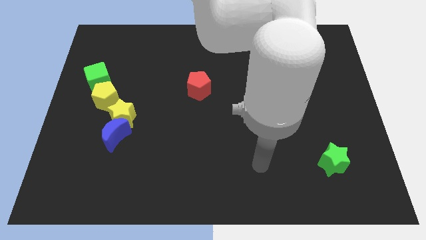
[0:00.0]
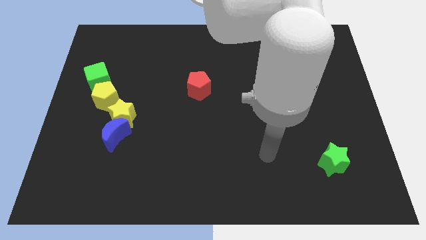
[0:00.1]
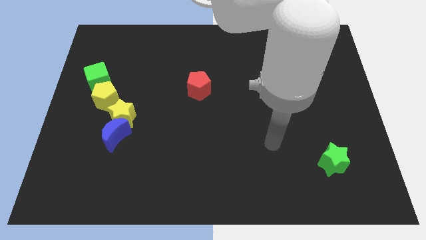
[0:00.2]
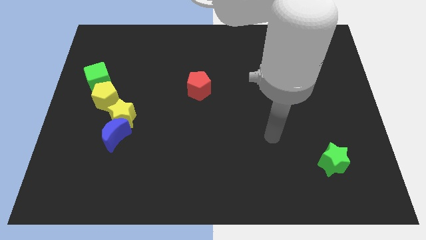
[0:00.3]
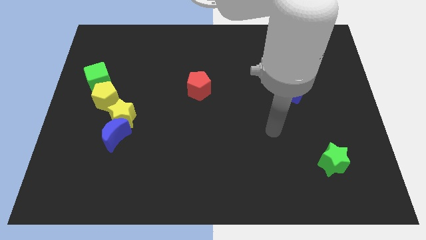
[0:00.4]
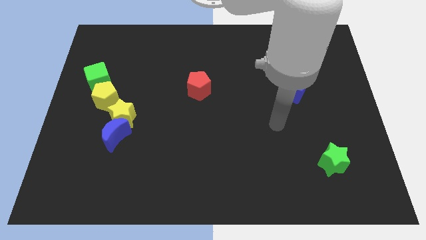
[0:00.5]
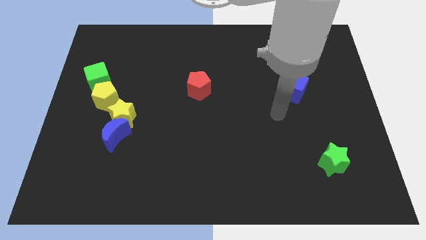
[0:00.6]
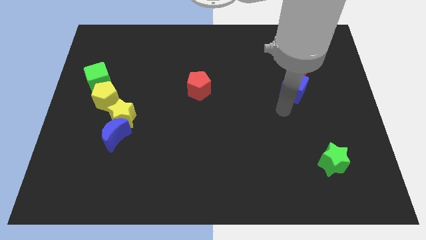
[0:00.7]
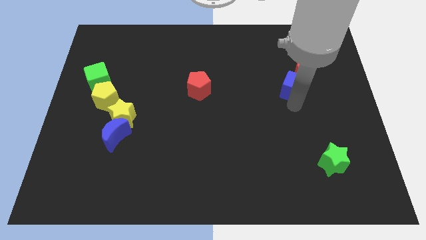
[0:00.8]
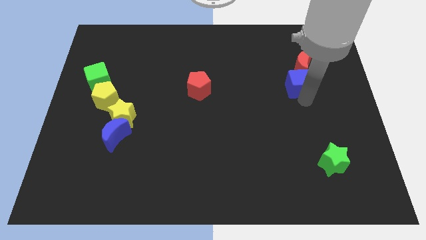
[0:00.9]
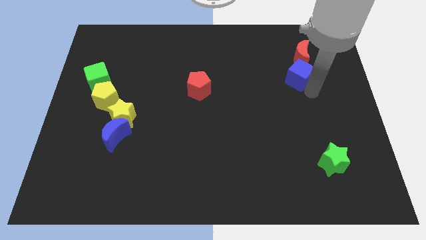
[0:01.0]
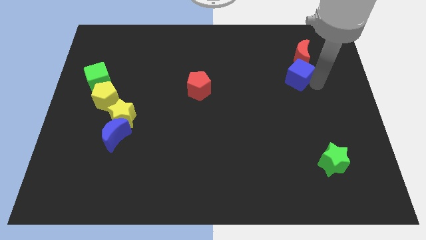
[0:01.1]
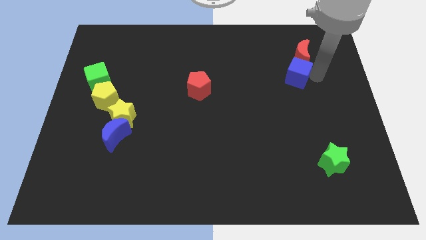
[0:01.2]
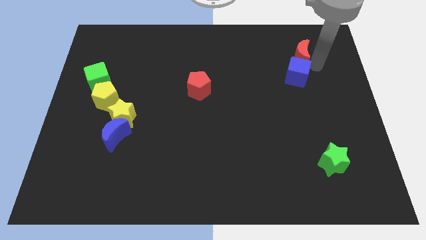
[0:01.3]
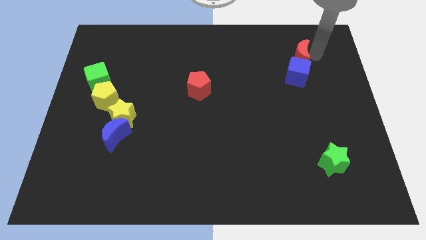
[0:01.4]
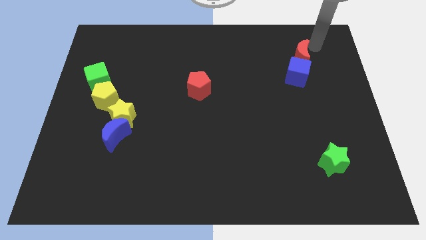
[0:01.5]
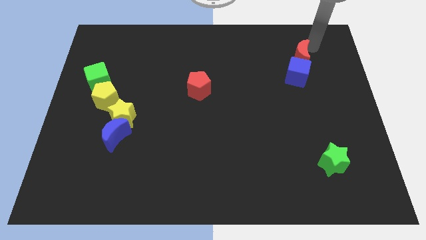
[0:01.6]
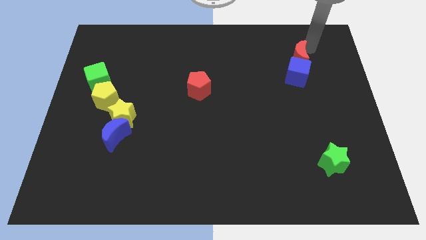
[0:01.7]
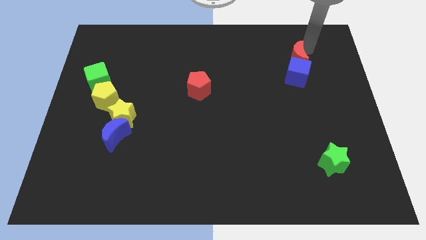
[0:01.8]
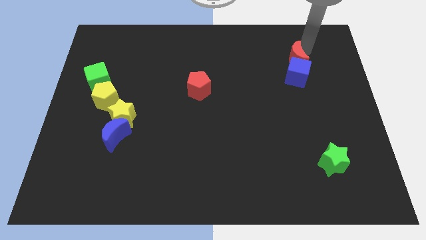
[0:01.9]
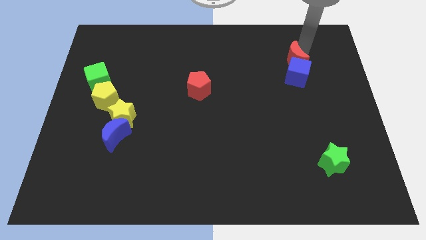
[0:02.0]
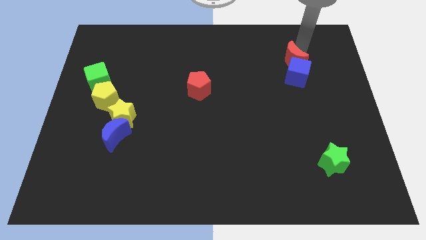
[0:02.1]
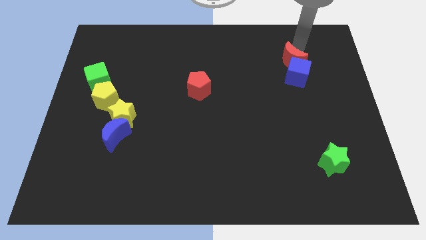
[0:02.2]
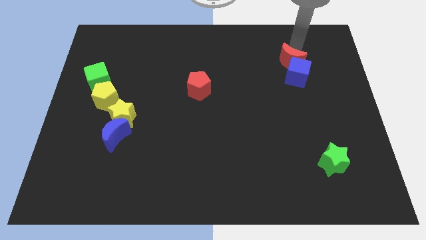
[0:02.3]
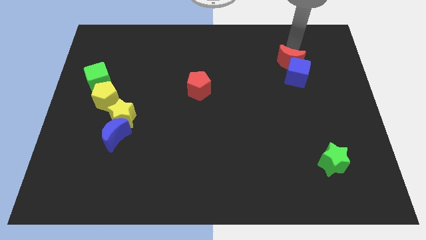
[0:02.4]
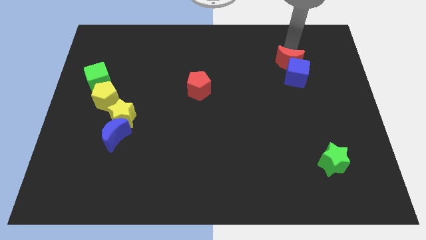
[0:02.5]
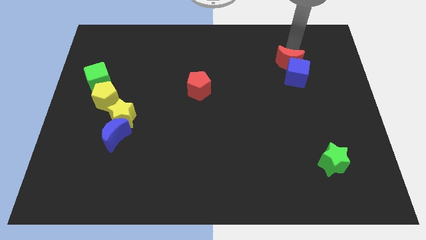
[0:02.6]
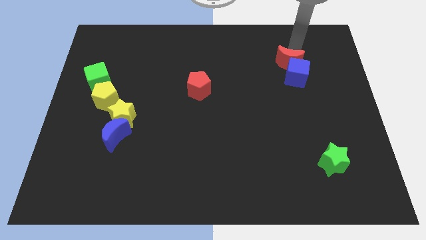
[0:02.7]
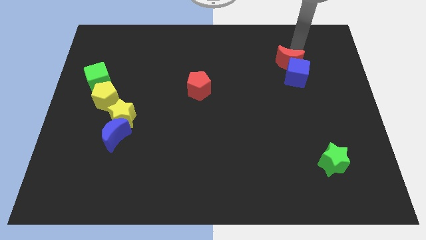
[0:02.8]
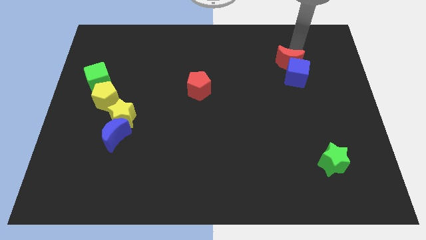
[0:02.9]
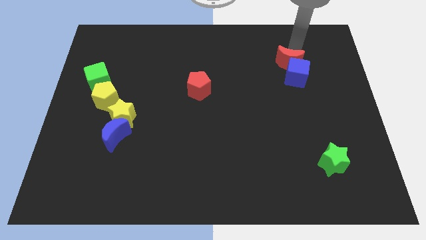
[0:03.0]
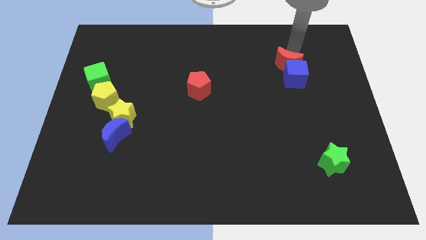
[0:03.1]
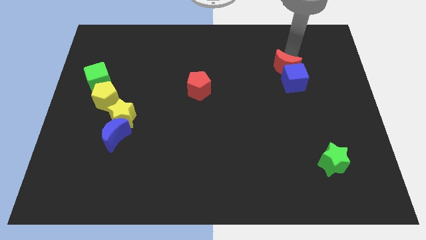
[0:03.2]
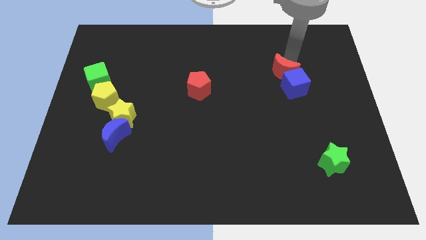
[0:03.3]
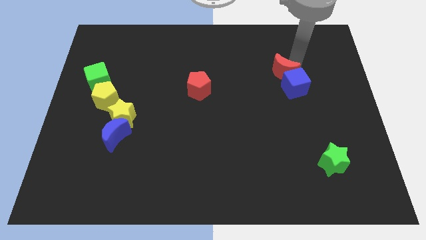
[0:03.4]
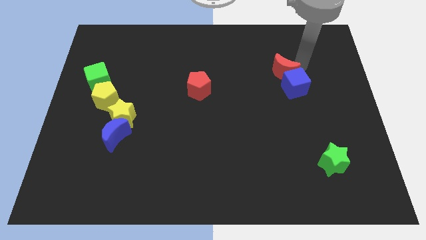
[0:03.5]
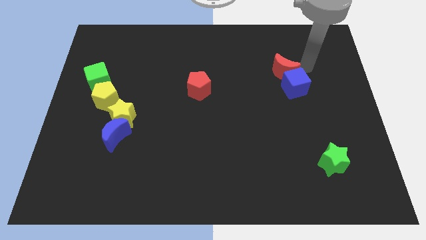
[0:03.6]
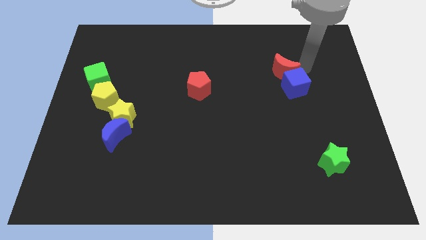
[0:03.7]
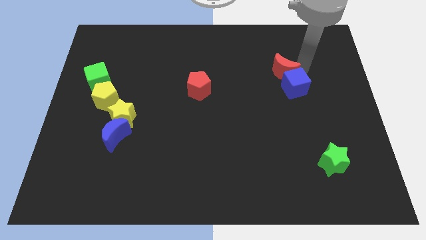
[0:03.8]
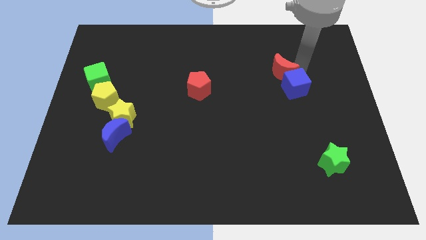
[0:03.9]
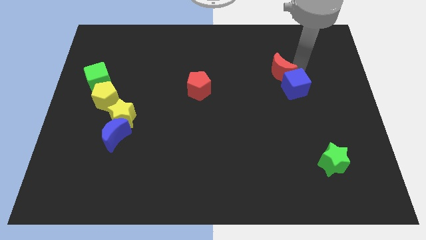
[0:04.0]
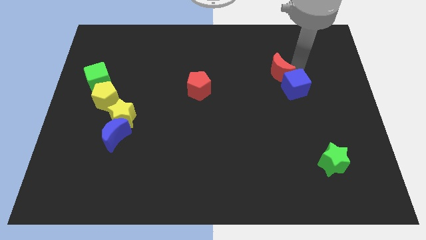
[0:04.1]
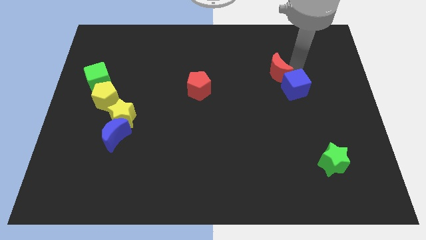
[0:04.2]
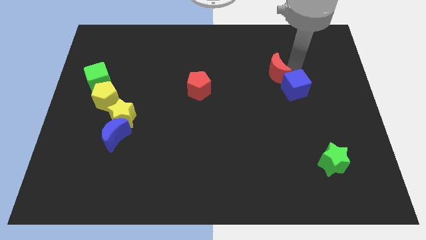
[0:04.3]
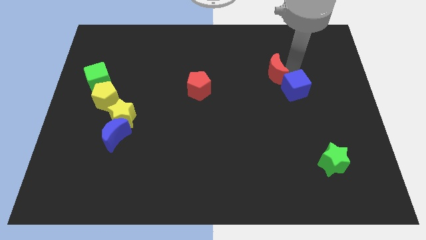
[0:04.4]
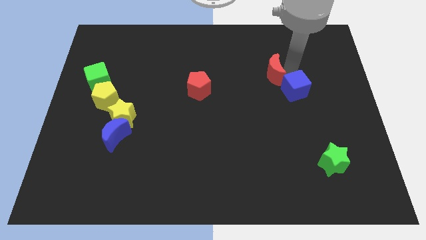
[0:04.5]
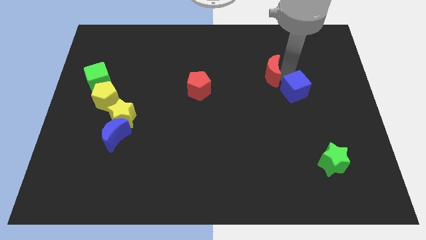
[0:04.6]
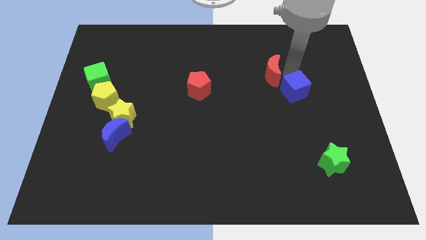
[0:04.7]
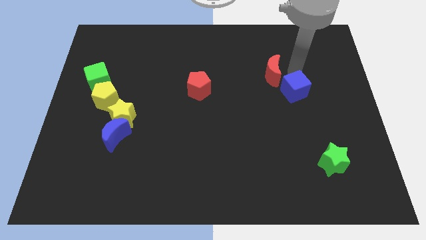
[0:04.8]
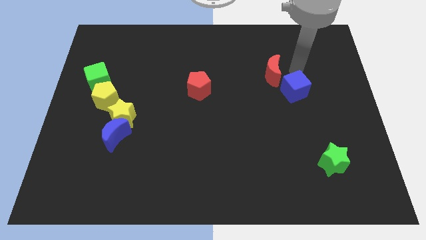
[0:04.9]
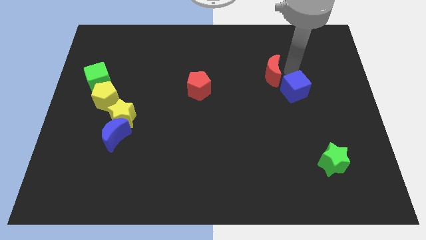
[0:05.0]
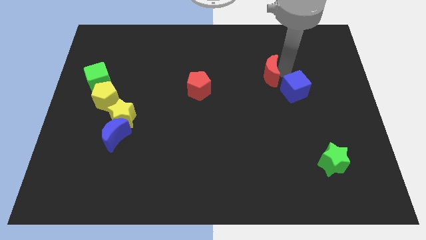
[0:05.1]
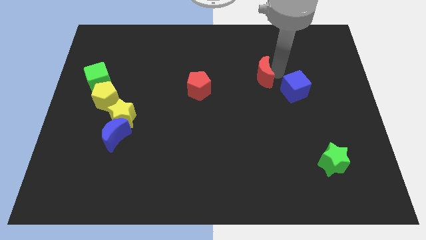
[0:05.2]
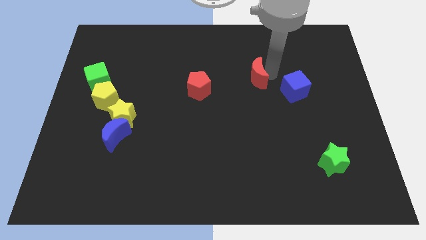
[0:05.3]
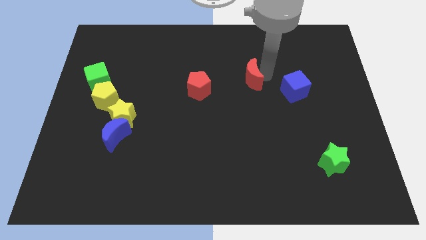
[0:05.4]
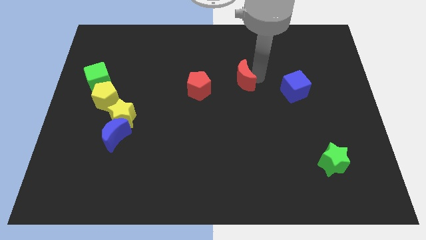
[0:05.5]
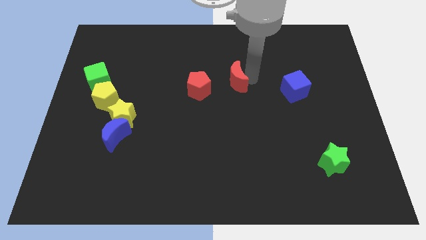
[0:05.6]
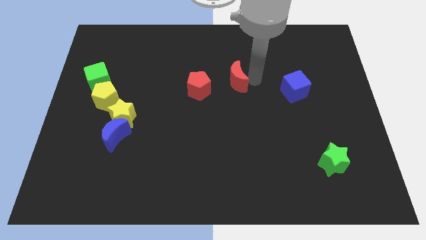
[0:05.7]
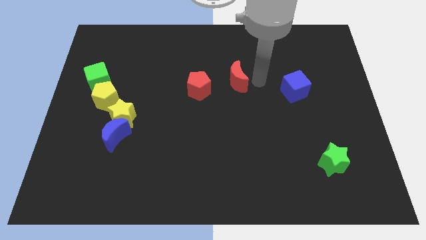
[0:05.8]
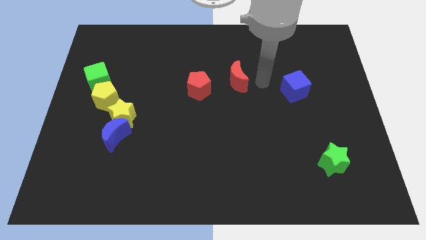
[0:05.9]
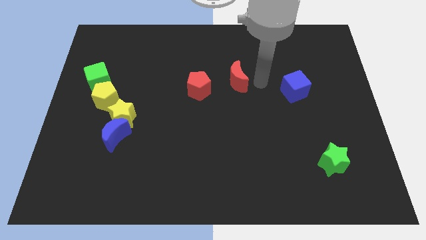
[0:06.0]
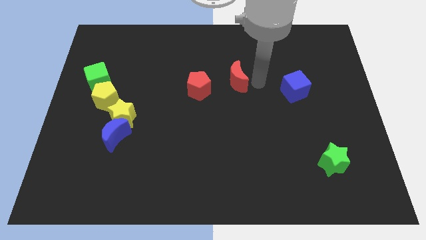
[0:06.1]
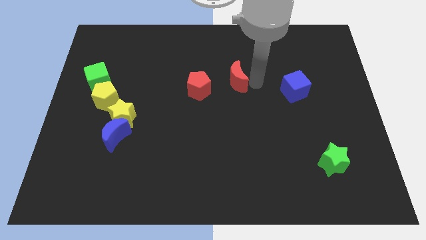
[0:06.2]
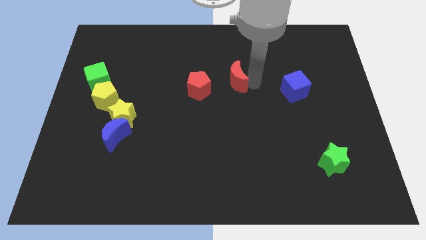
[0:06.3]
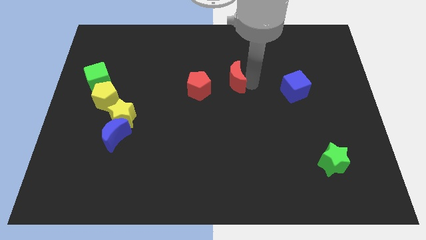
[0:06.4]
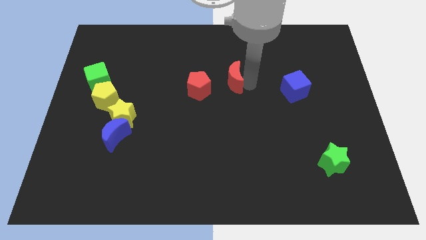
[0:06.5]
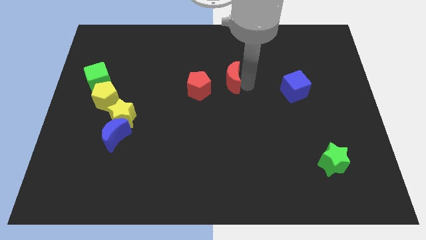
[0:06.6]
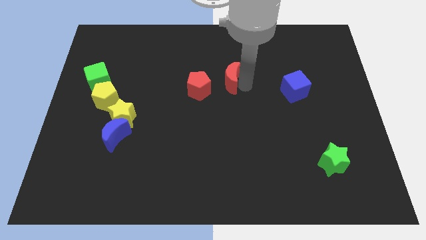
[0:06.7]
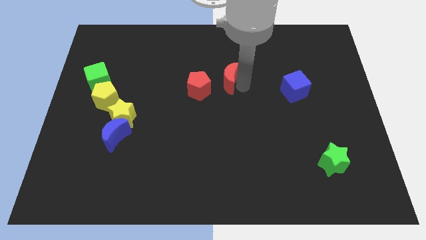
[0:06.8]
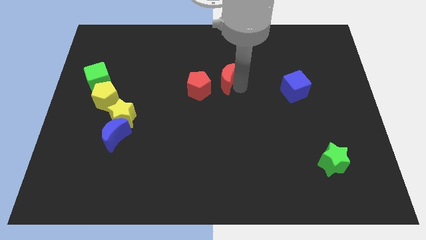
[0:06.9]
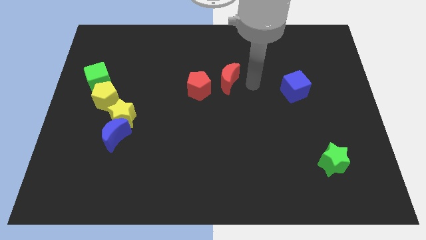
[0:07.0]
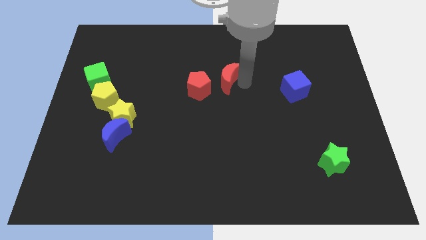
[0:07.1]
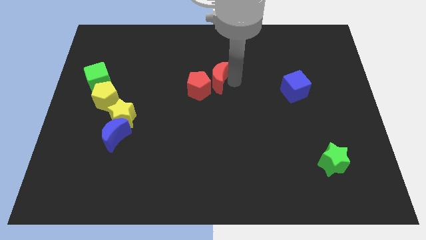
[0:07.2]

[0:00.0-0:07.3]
push the red moon left

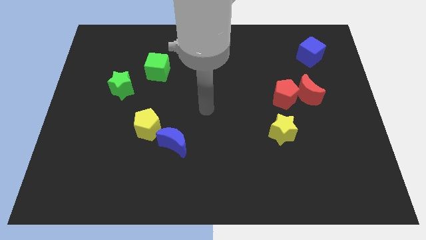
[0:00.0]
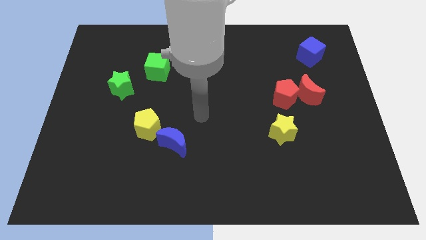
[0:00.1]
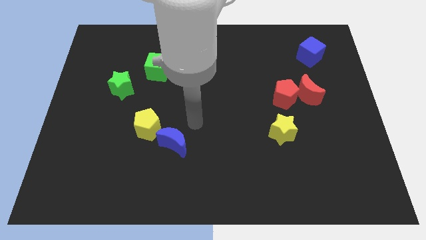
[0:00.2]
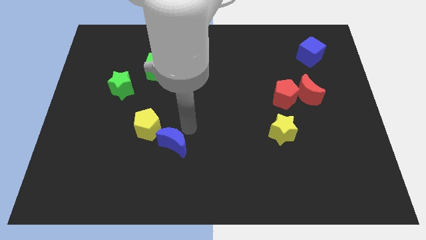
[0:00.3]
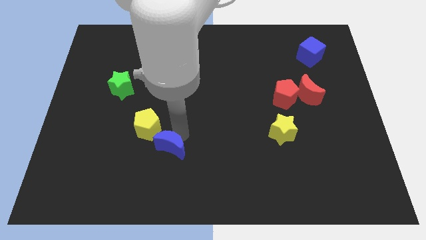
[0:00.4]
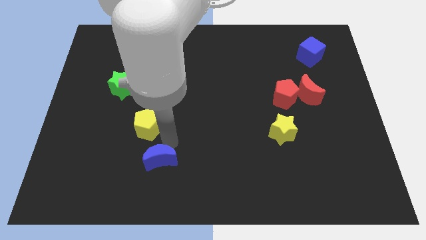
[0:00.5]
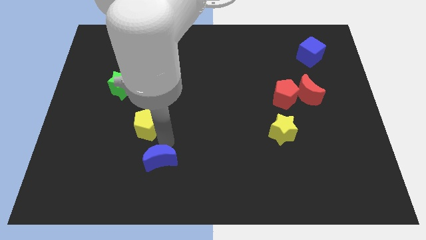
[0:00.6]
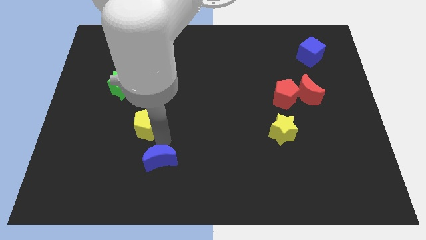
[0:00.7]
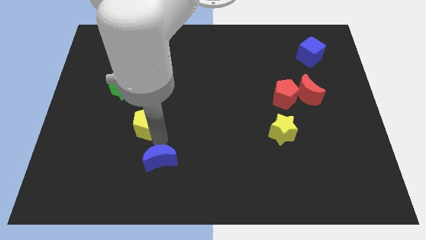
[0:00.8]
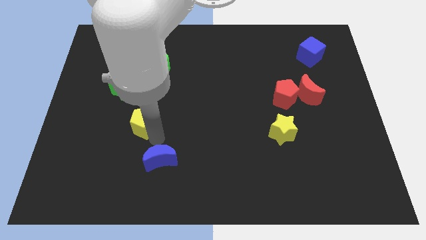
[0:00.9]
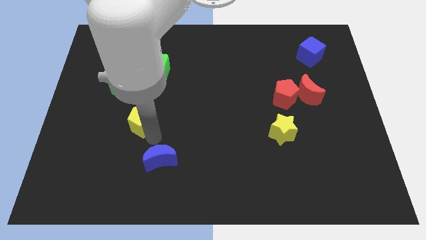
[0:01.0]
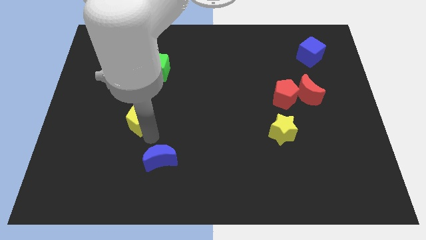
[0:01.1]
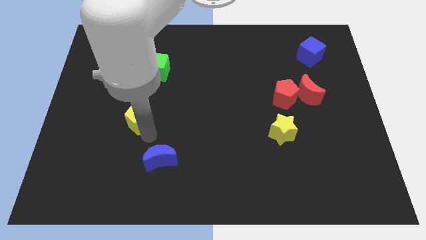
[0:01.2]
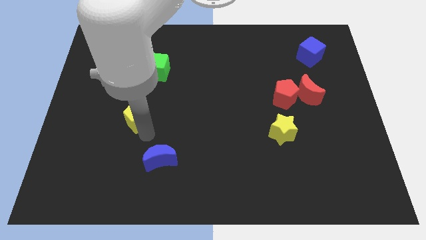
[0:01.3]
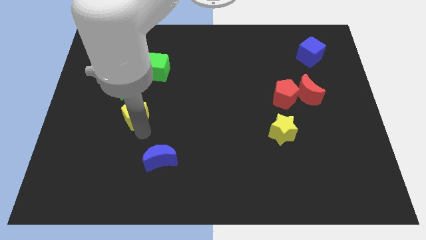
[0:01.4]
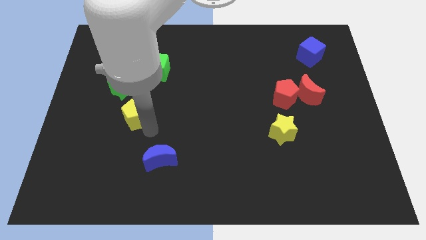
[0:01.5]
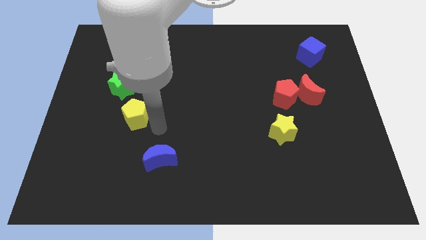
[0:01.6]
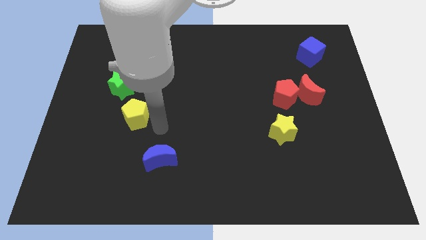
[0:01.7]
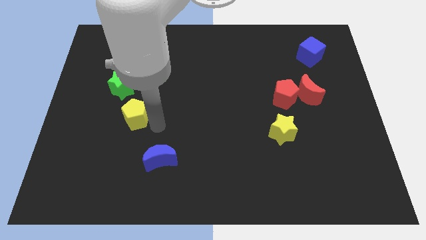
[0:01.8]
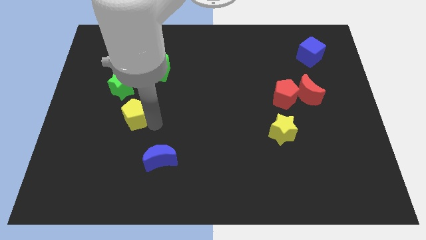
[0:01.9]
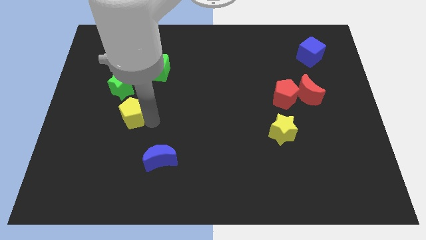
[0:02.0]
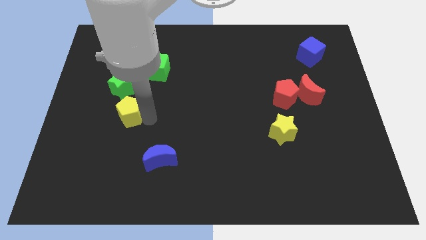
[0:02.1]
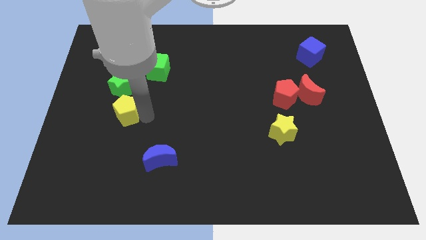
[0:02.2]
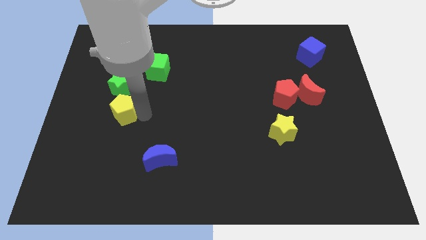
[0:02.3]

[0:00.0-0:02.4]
slightly slide the yellow pentagon diagonally up and to the left
